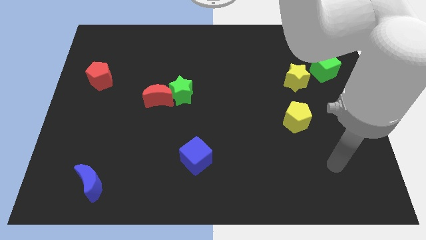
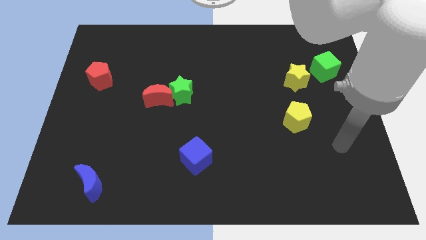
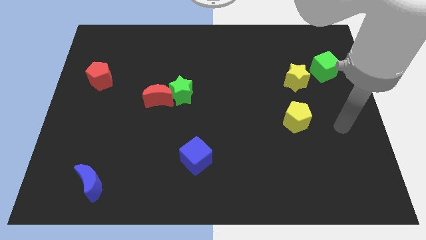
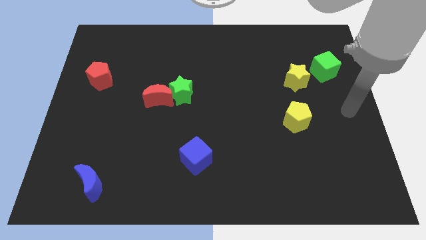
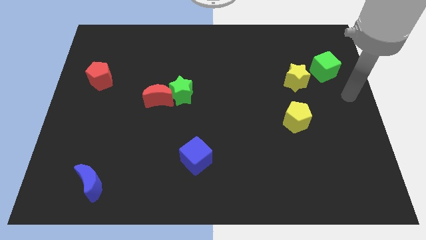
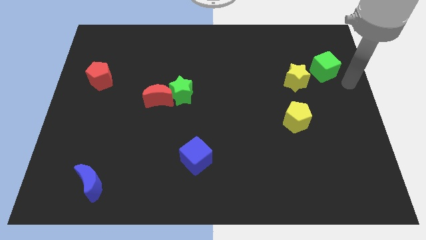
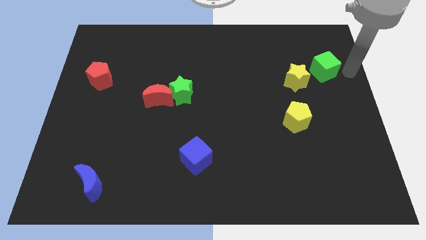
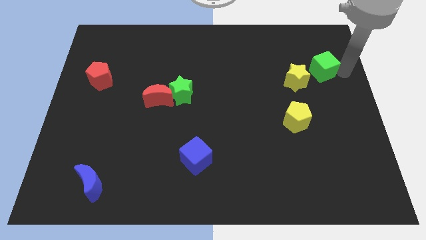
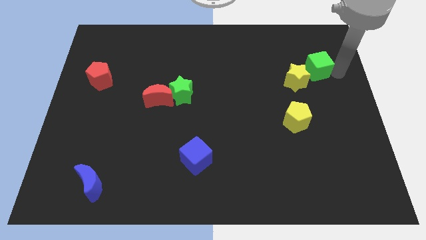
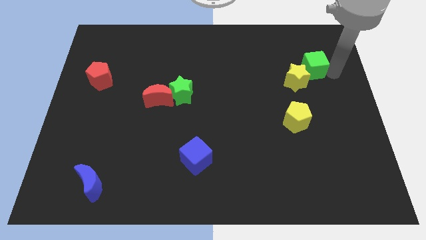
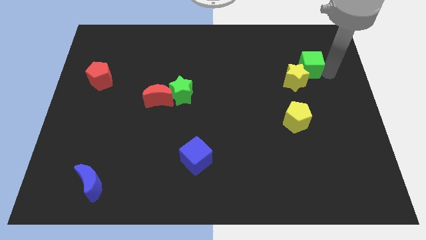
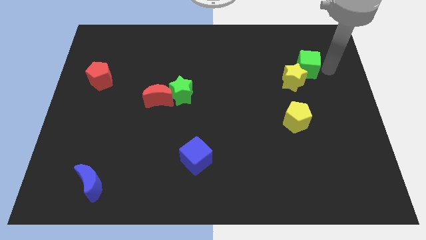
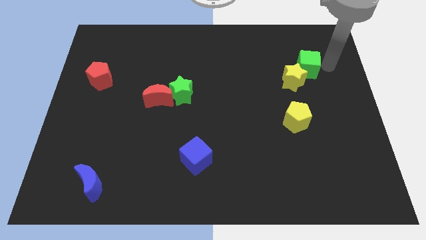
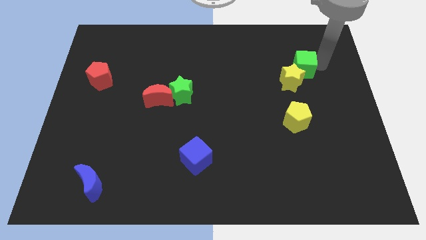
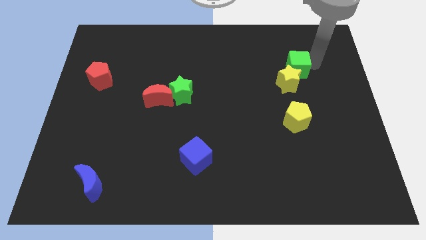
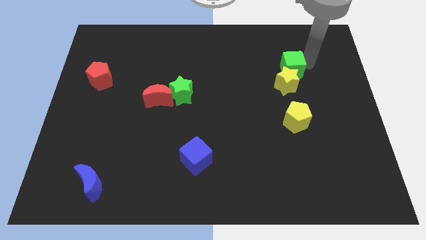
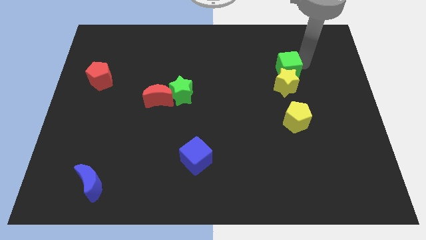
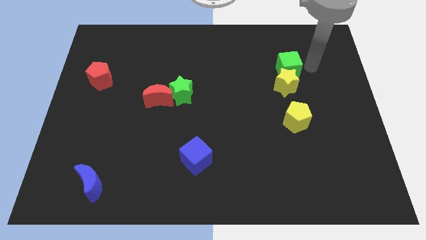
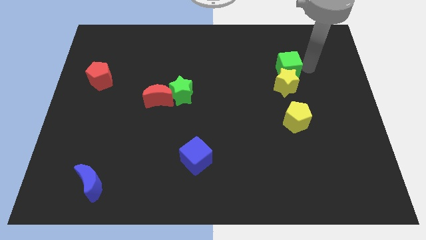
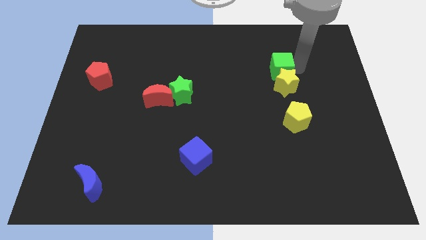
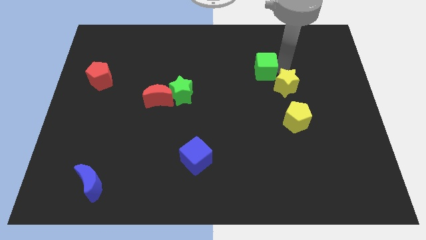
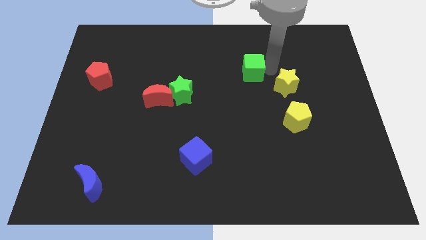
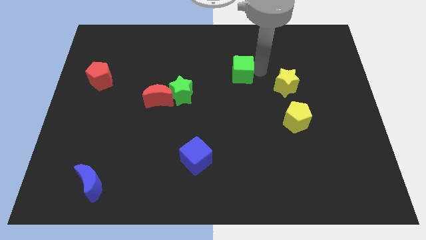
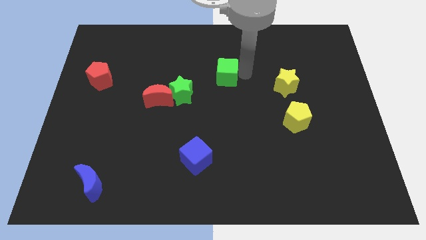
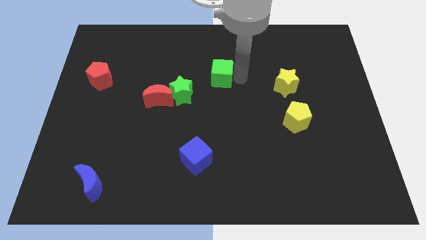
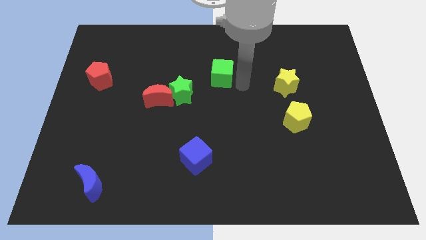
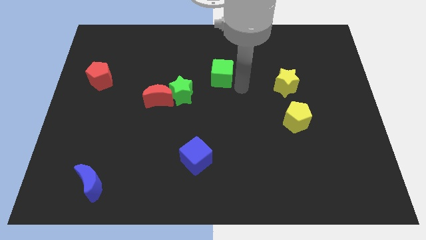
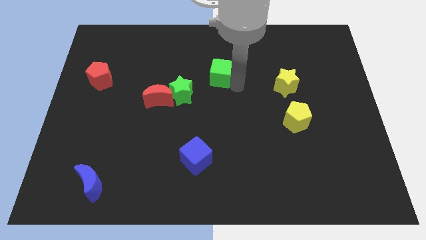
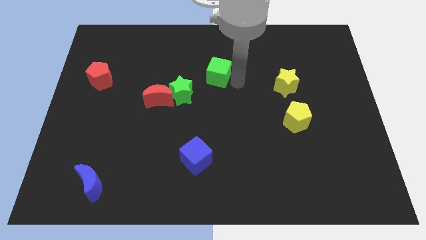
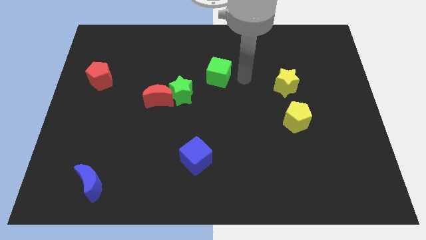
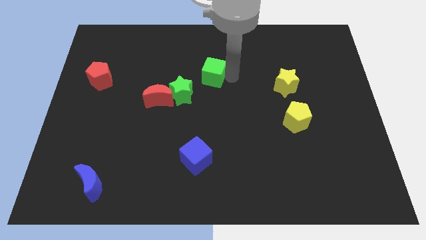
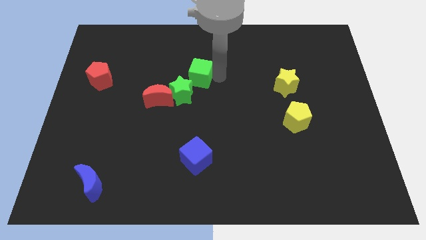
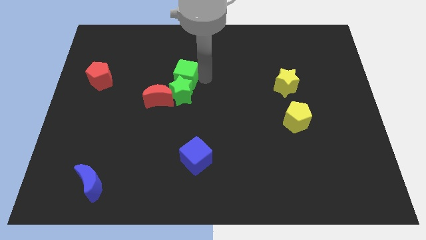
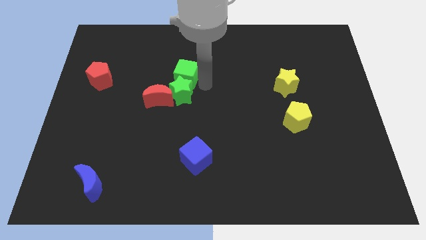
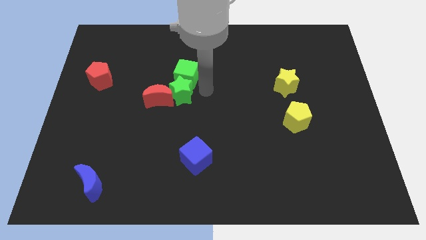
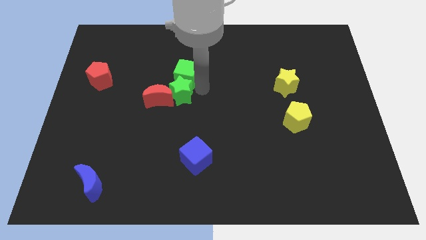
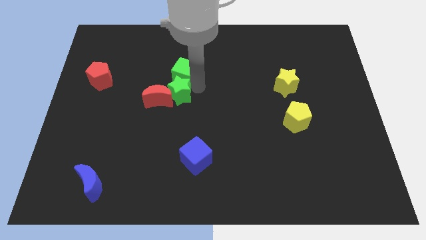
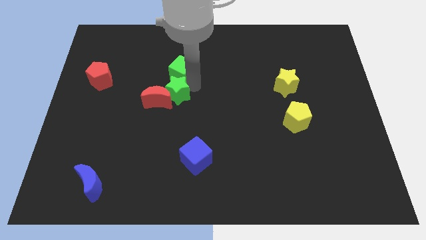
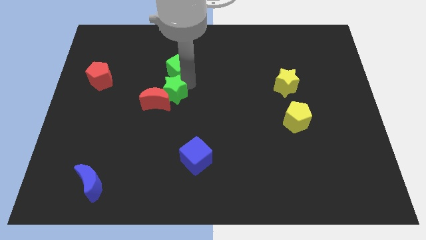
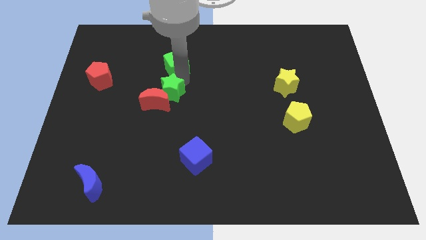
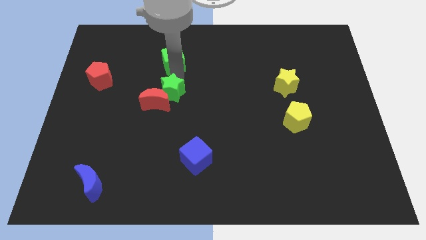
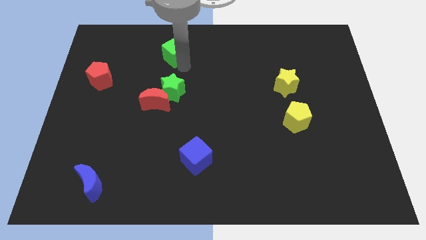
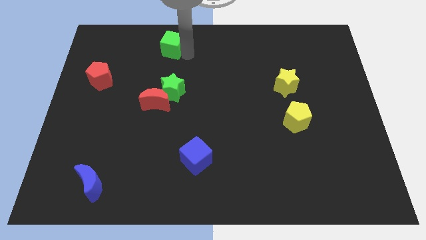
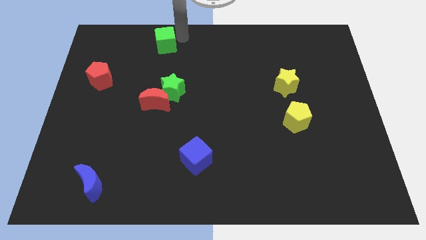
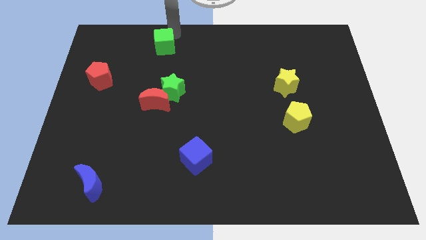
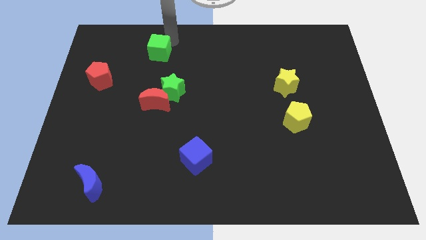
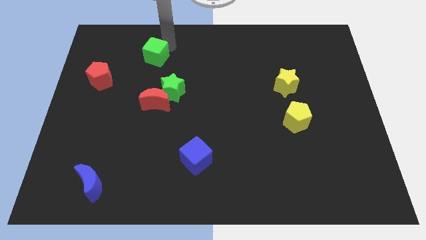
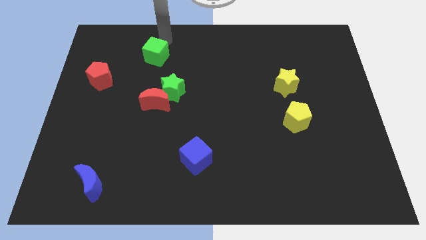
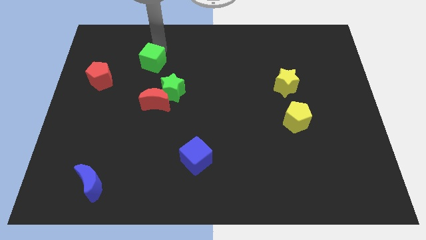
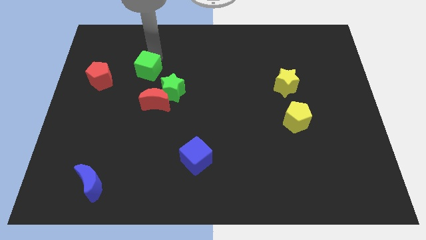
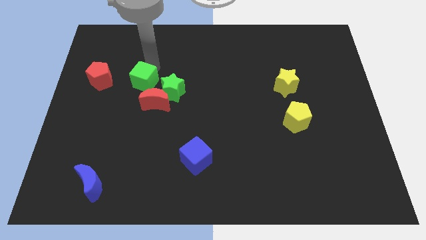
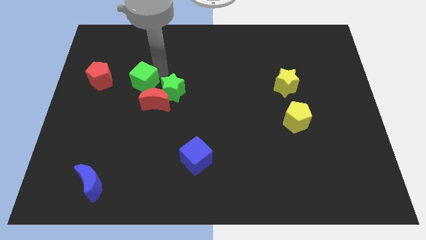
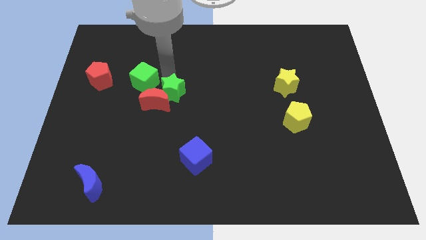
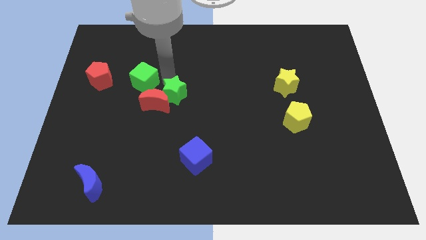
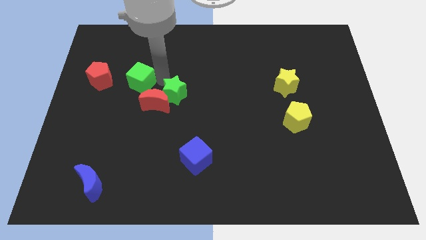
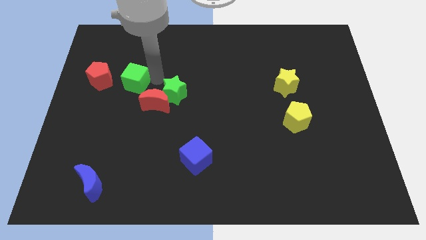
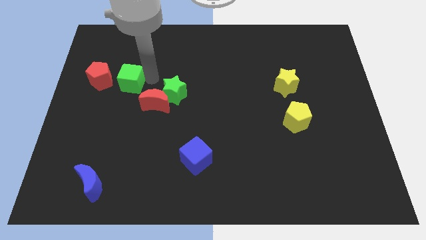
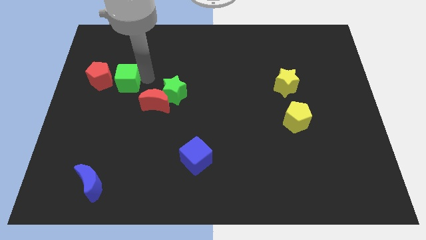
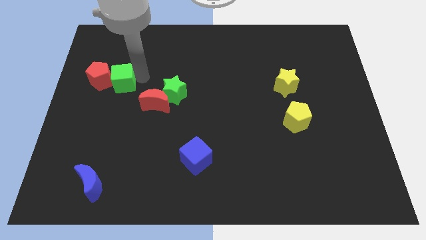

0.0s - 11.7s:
move the green cube to the red pentagon

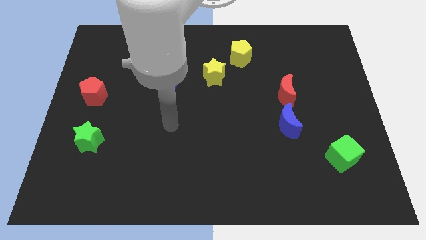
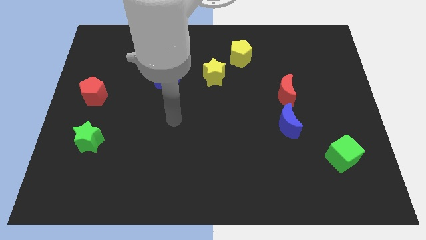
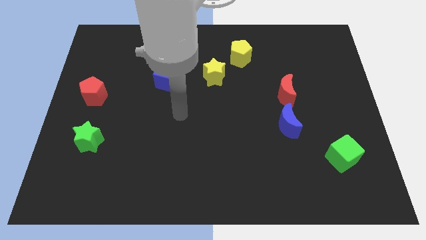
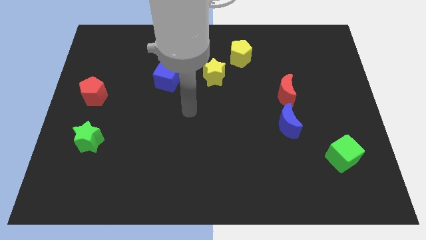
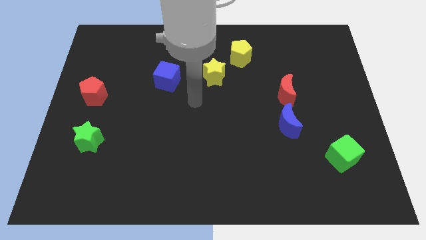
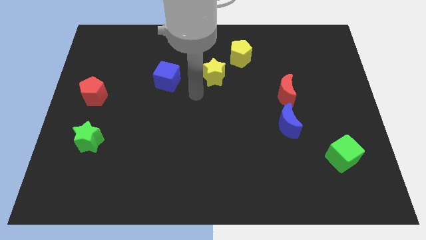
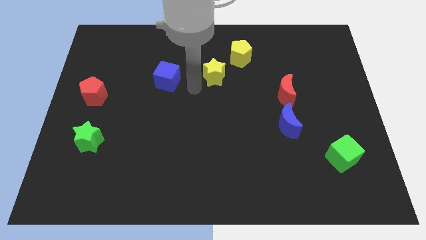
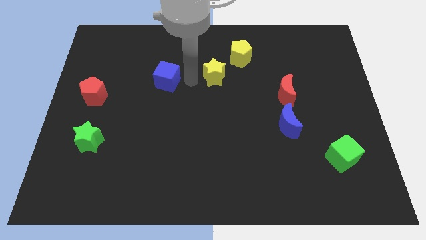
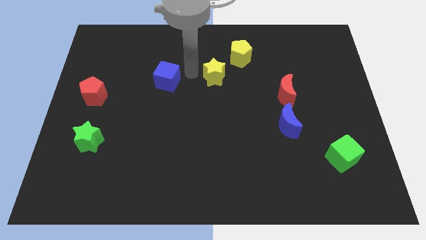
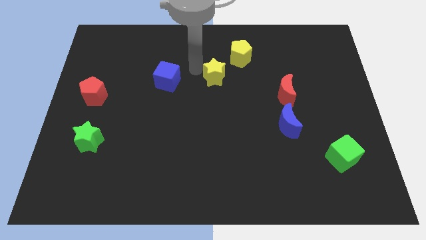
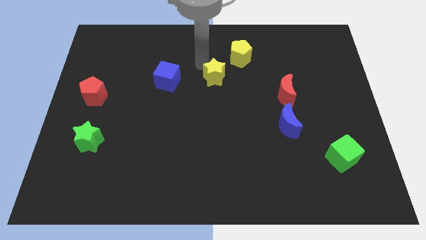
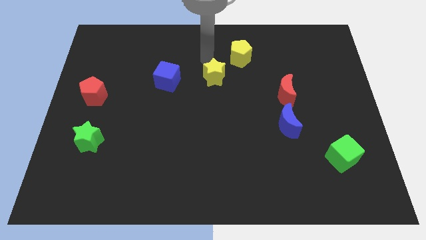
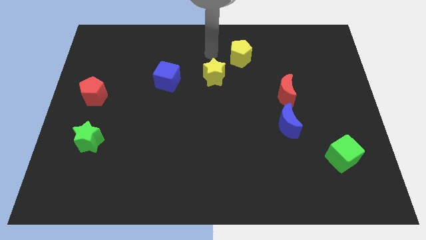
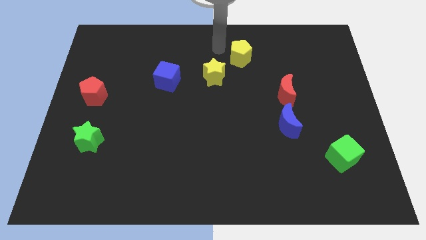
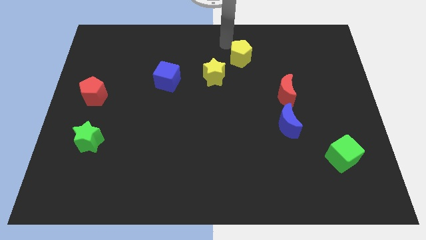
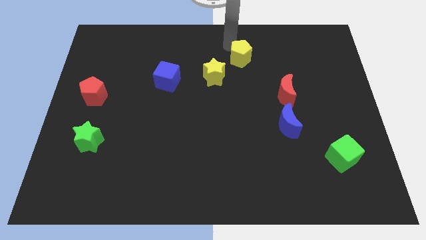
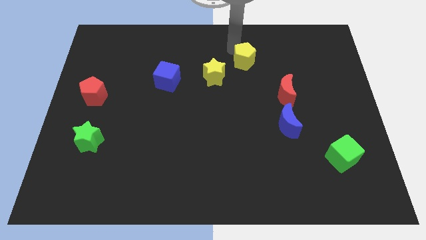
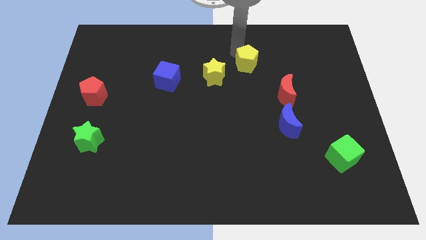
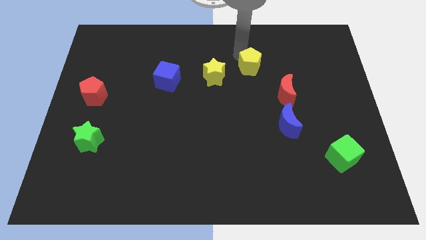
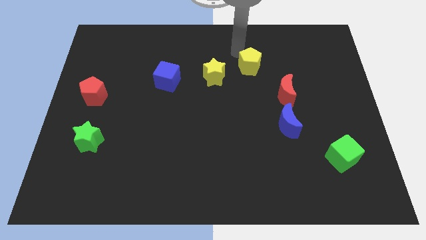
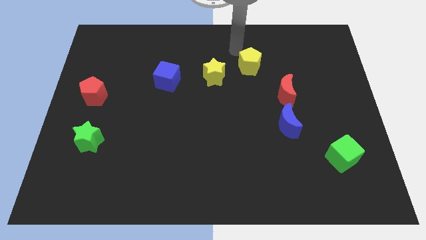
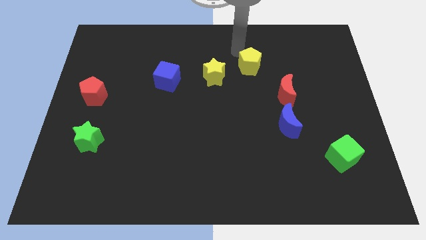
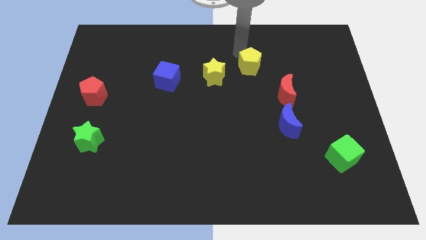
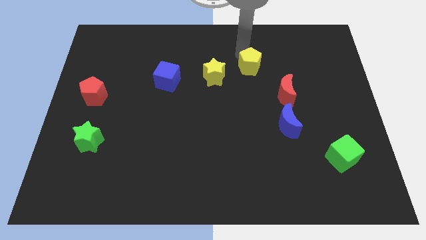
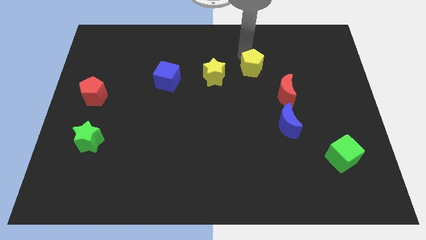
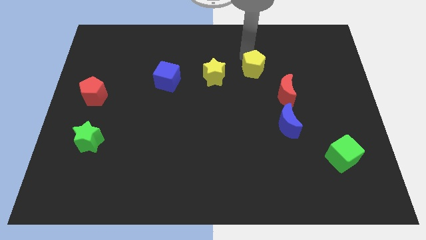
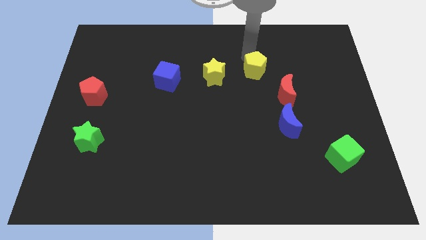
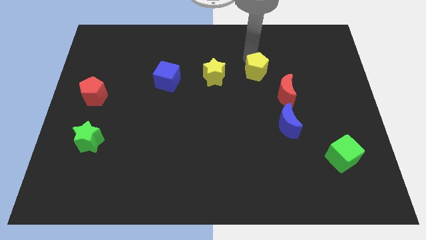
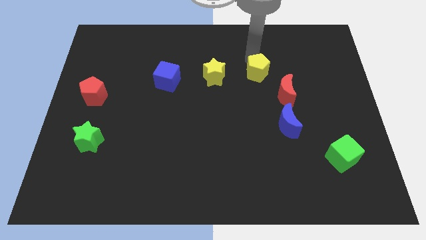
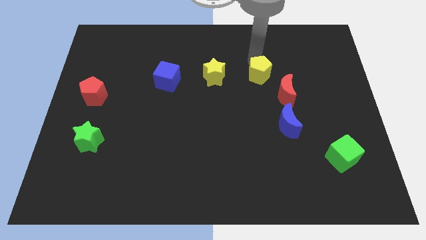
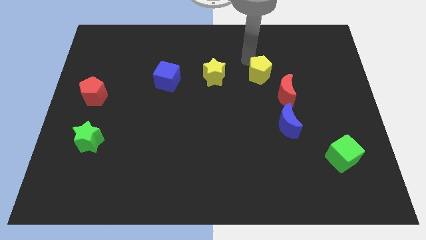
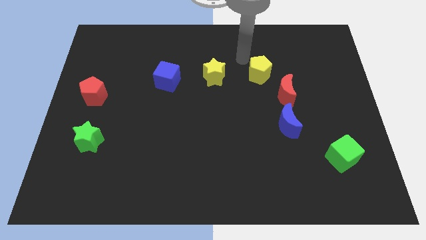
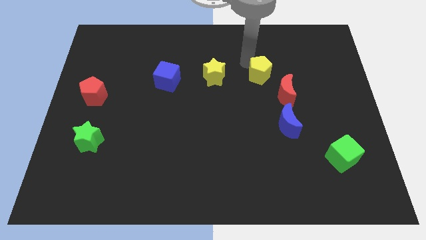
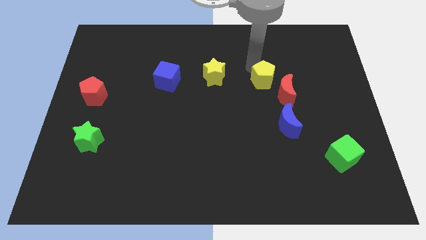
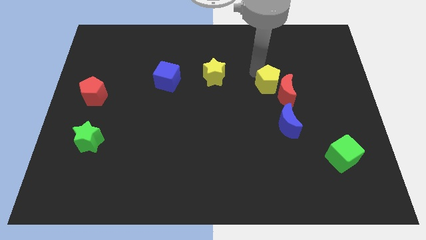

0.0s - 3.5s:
move the yellow pentagon next to the red moon
